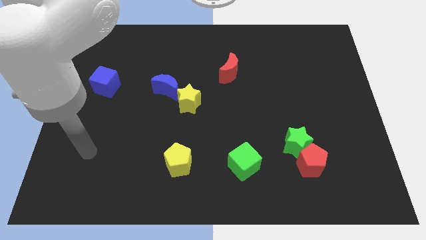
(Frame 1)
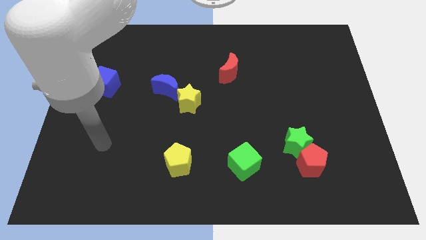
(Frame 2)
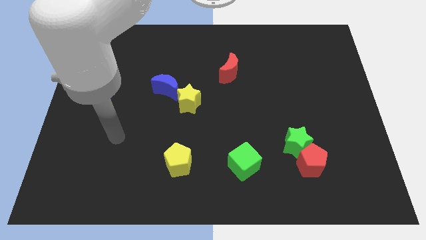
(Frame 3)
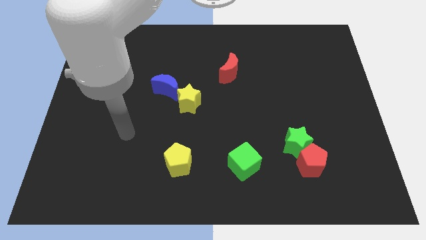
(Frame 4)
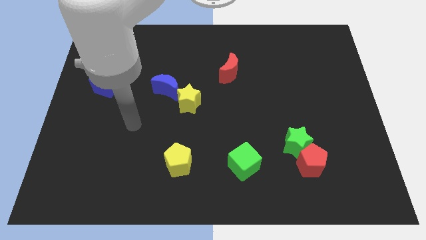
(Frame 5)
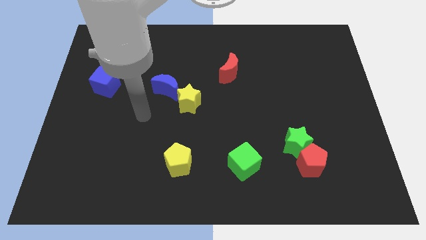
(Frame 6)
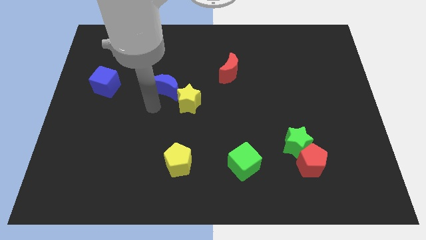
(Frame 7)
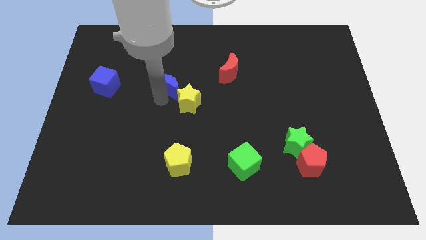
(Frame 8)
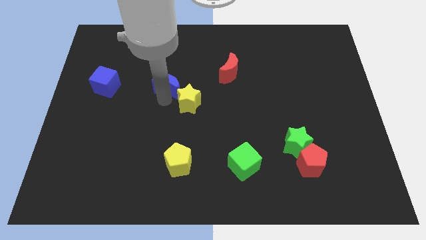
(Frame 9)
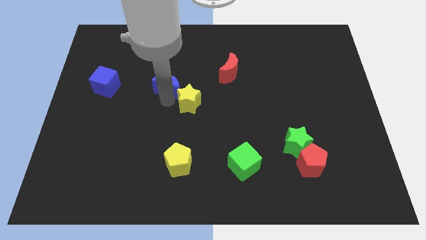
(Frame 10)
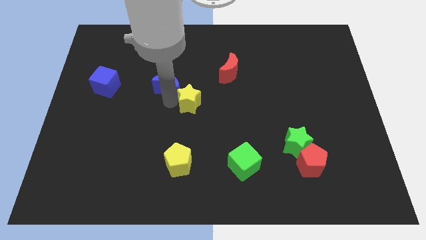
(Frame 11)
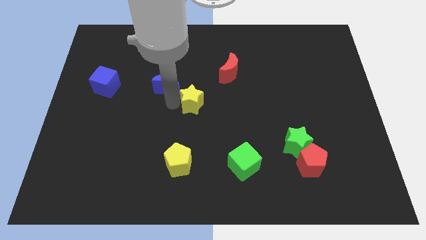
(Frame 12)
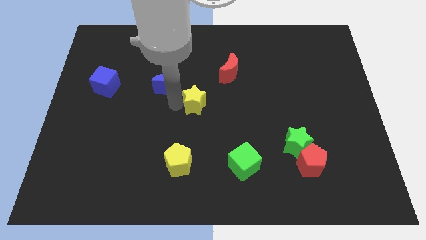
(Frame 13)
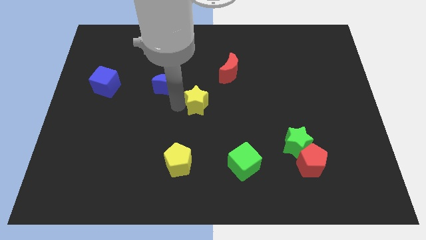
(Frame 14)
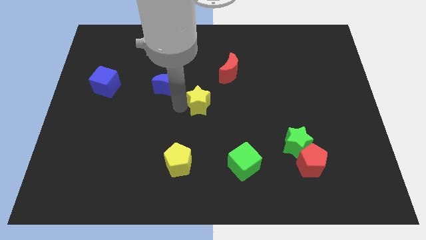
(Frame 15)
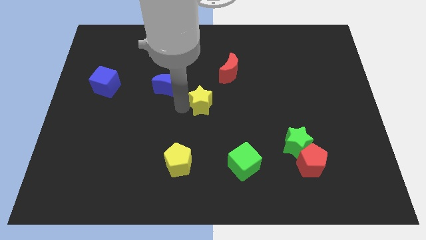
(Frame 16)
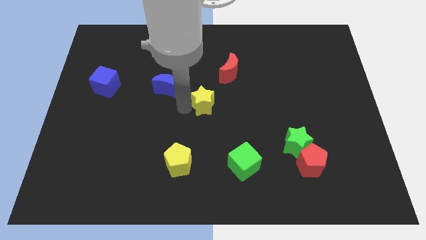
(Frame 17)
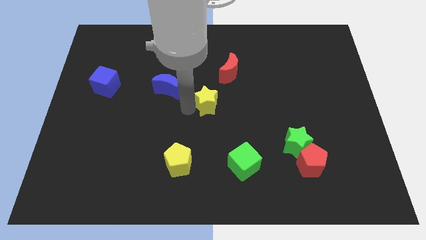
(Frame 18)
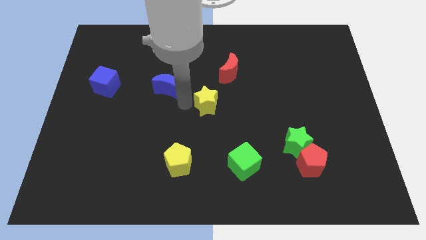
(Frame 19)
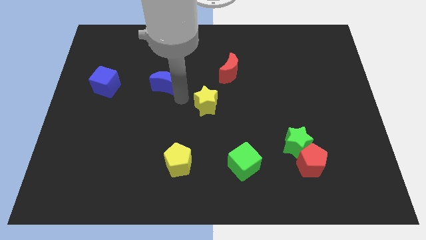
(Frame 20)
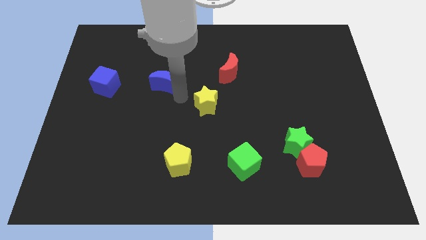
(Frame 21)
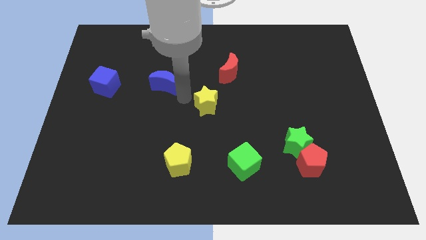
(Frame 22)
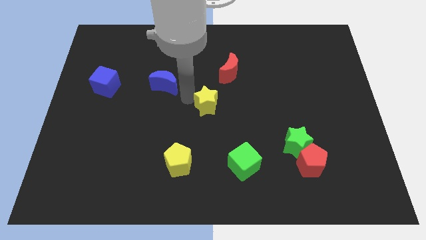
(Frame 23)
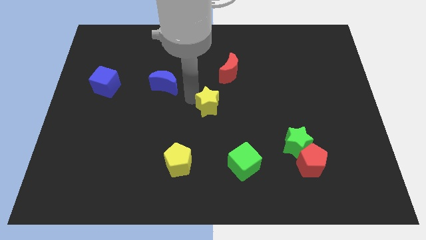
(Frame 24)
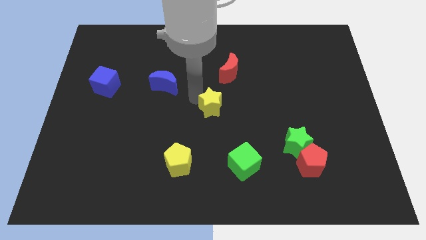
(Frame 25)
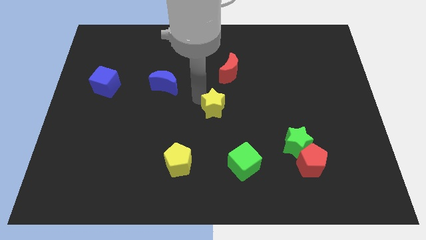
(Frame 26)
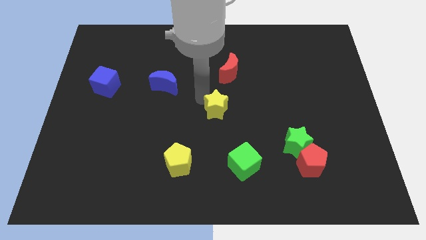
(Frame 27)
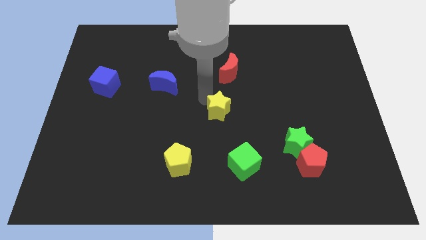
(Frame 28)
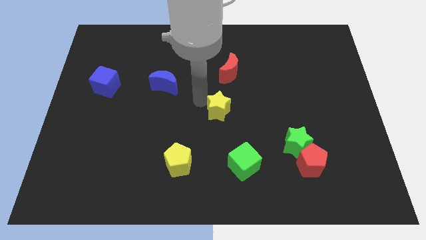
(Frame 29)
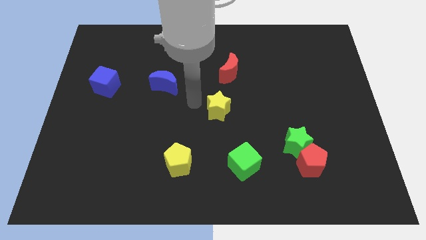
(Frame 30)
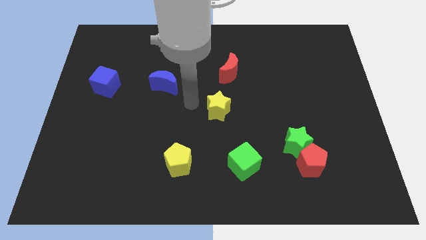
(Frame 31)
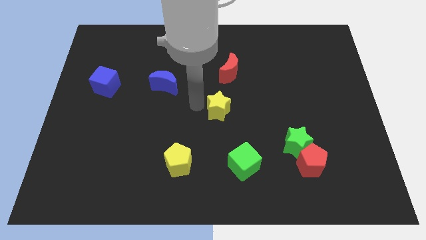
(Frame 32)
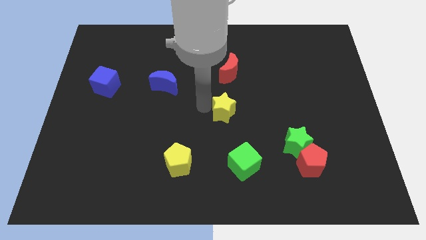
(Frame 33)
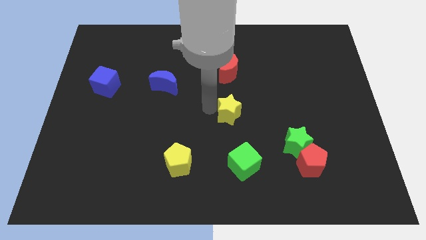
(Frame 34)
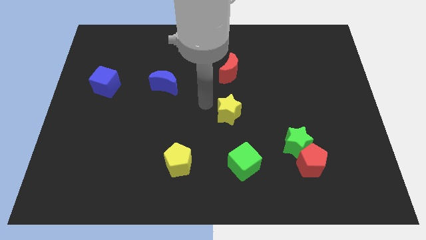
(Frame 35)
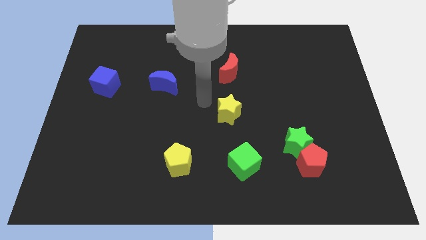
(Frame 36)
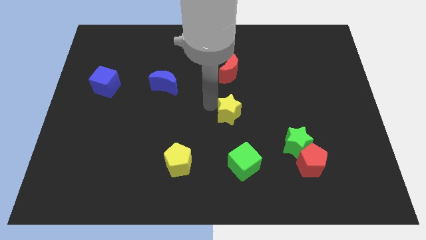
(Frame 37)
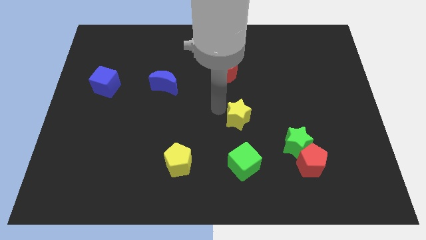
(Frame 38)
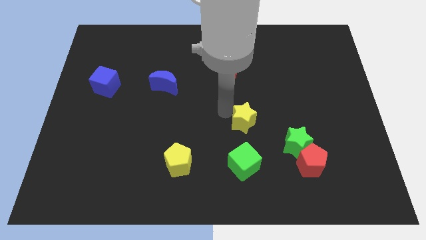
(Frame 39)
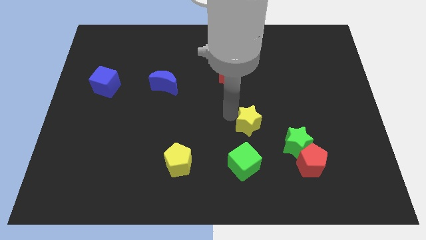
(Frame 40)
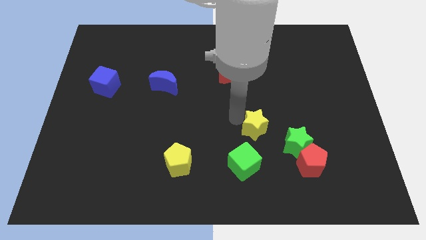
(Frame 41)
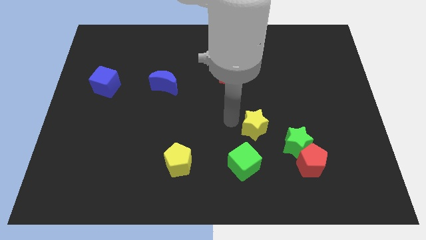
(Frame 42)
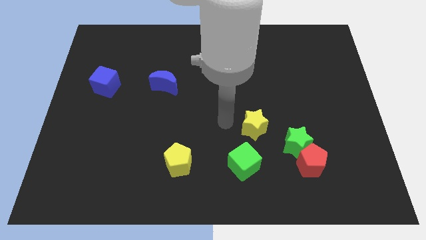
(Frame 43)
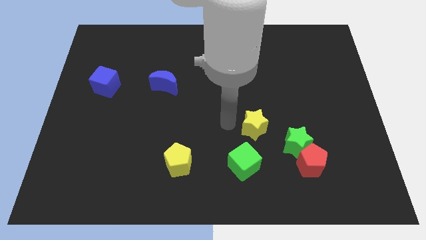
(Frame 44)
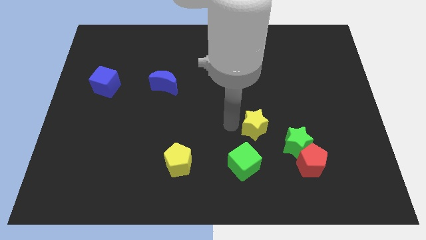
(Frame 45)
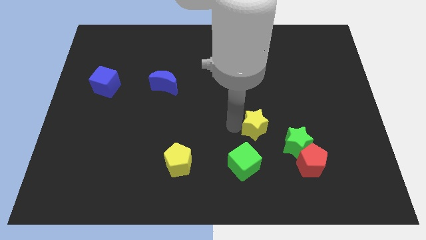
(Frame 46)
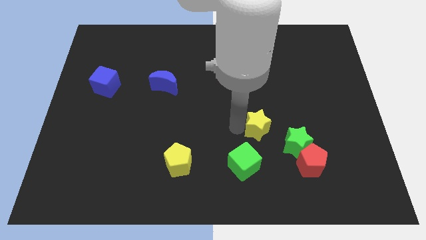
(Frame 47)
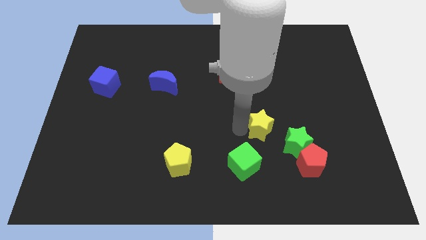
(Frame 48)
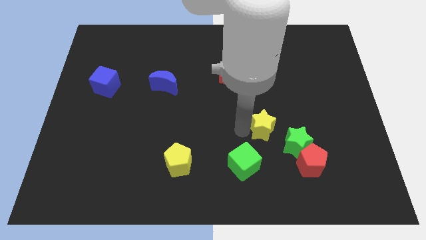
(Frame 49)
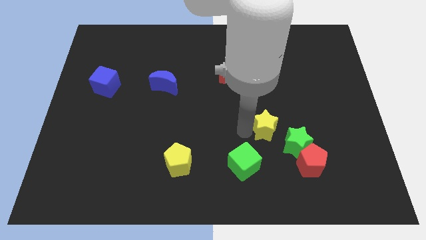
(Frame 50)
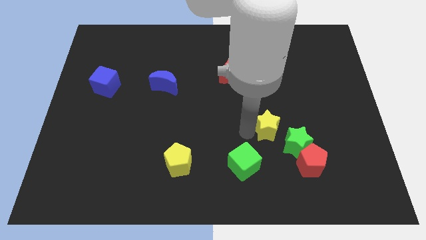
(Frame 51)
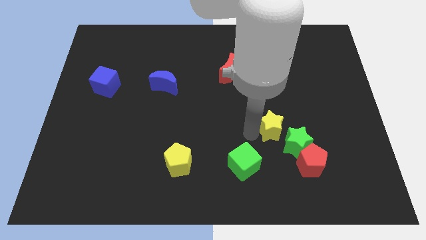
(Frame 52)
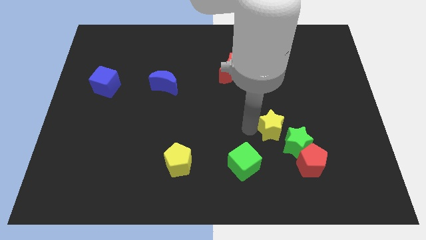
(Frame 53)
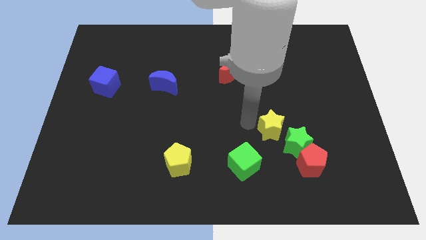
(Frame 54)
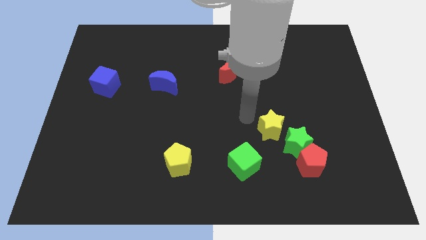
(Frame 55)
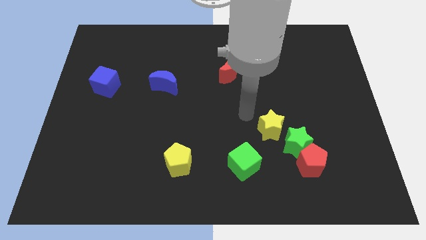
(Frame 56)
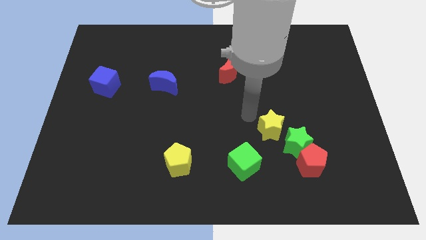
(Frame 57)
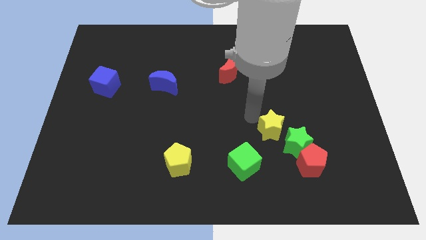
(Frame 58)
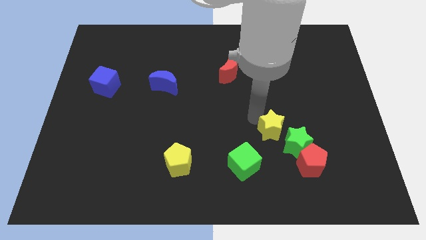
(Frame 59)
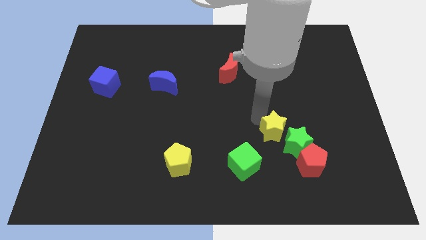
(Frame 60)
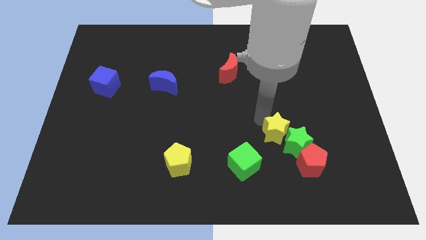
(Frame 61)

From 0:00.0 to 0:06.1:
push the yellow star next to the green star

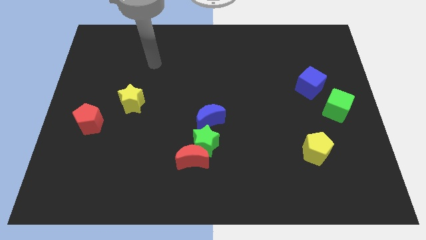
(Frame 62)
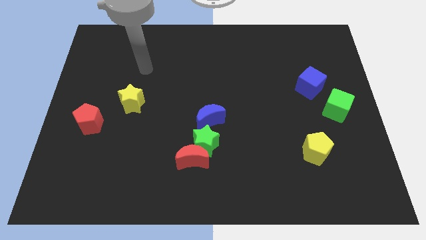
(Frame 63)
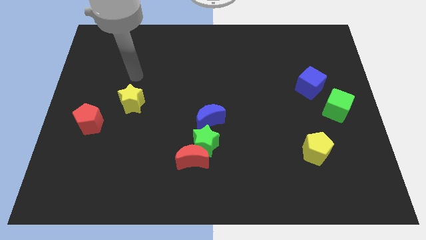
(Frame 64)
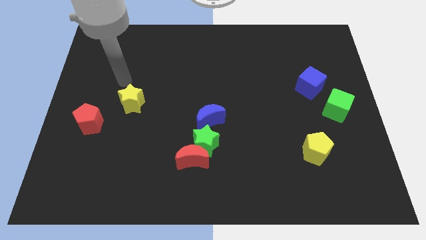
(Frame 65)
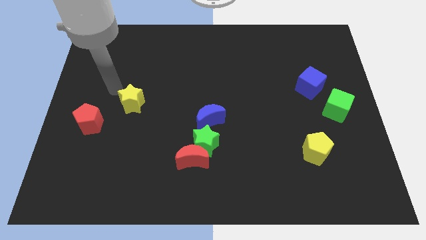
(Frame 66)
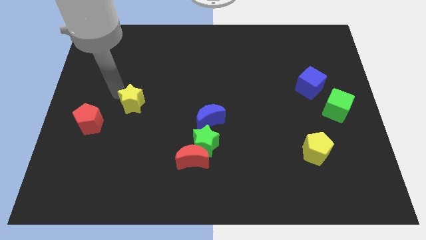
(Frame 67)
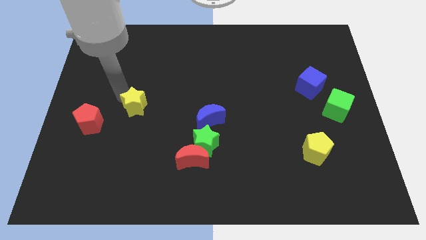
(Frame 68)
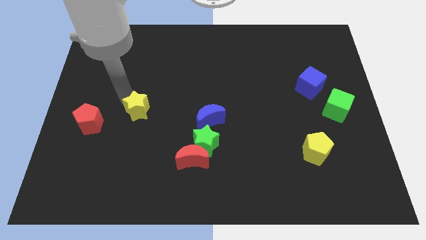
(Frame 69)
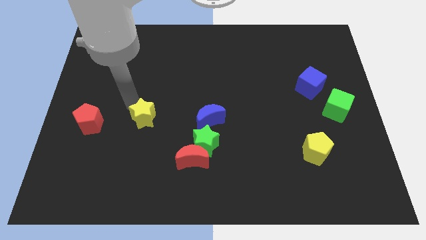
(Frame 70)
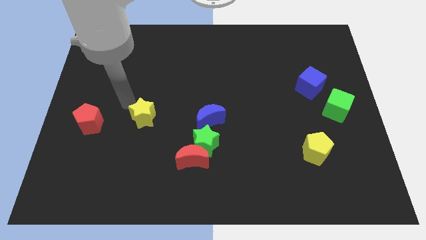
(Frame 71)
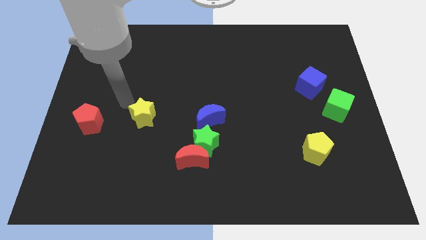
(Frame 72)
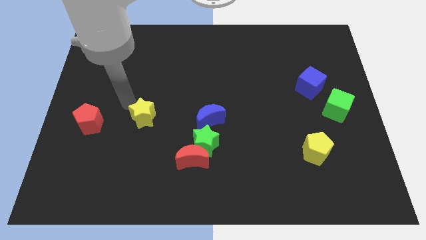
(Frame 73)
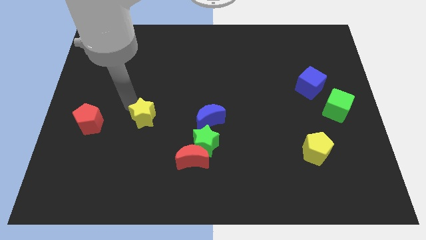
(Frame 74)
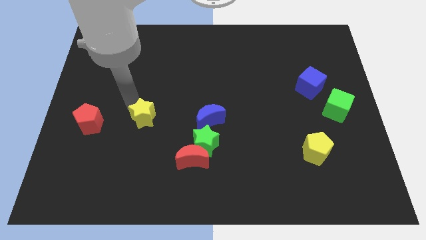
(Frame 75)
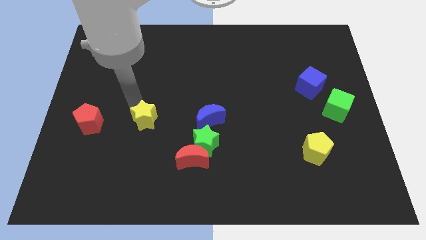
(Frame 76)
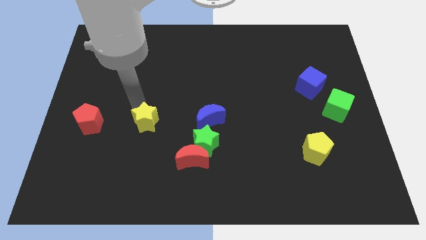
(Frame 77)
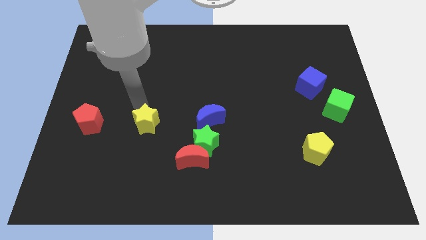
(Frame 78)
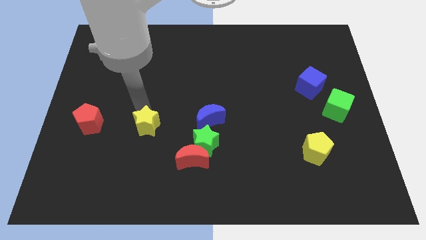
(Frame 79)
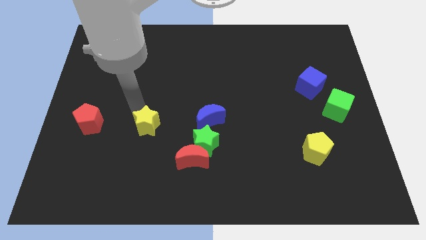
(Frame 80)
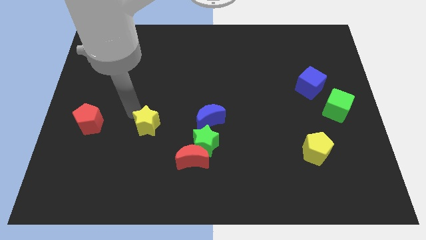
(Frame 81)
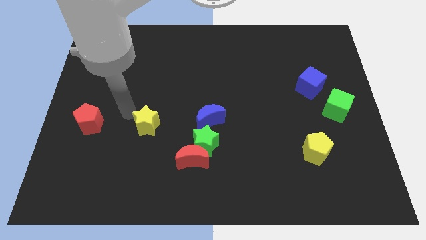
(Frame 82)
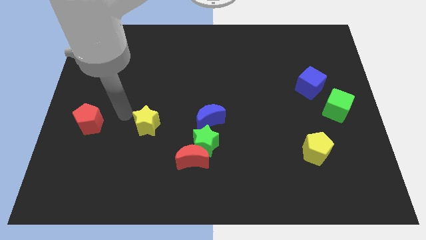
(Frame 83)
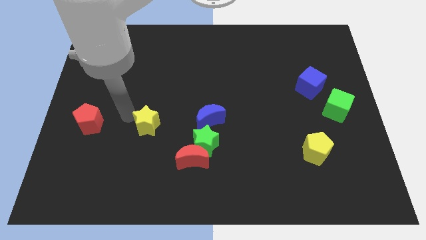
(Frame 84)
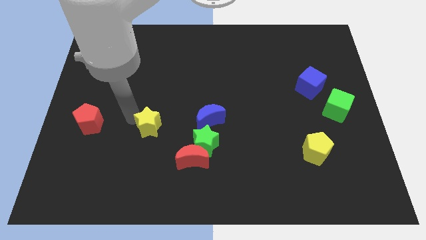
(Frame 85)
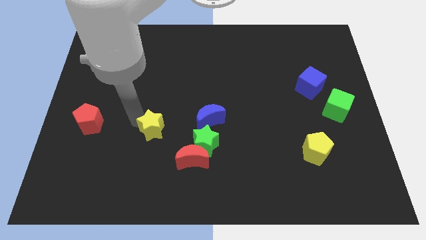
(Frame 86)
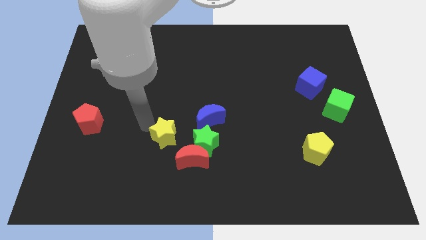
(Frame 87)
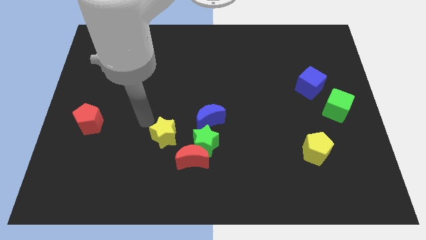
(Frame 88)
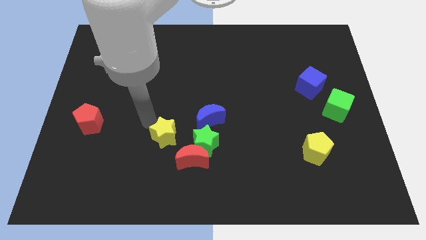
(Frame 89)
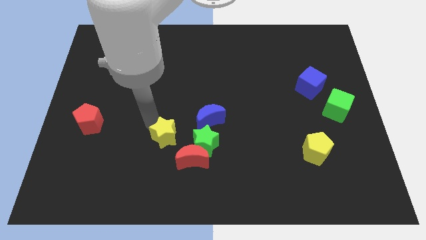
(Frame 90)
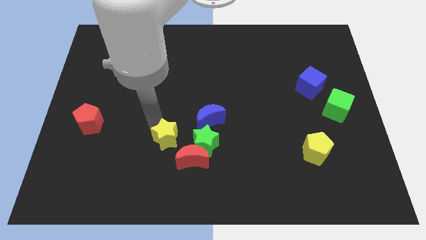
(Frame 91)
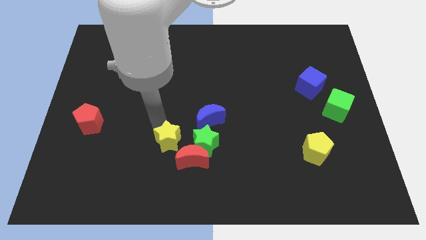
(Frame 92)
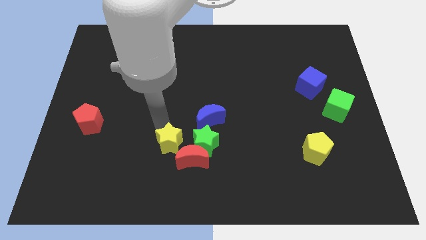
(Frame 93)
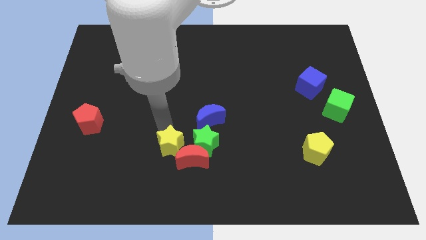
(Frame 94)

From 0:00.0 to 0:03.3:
push the yellow star to the red moon
